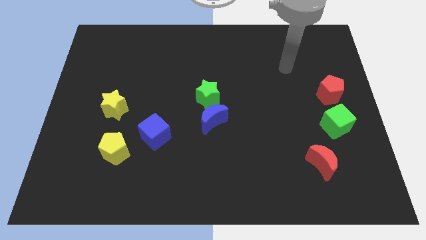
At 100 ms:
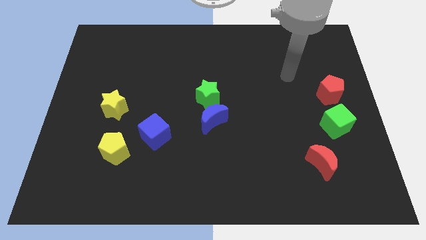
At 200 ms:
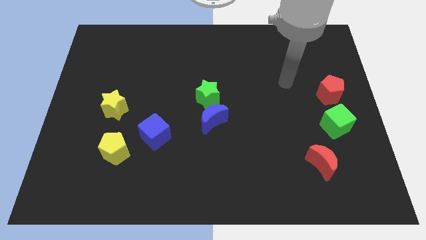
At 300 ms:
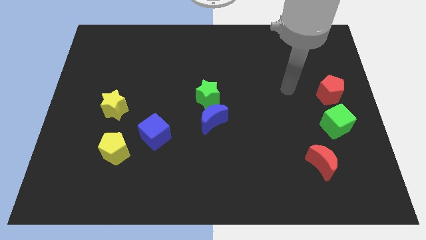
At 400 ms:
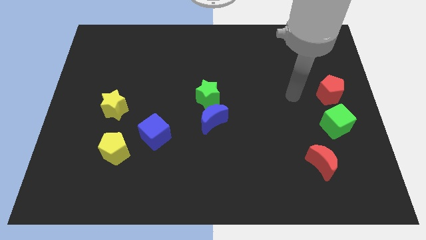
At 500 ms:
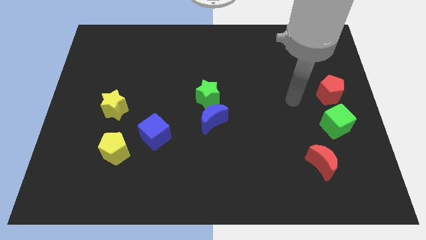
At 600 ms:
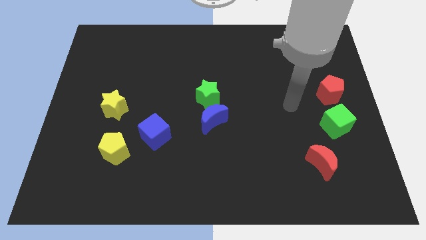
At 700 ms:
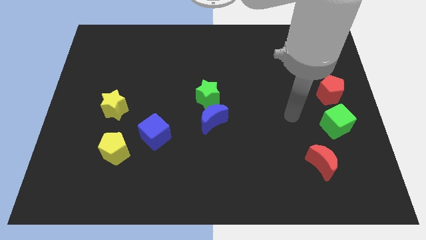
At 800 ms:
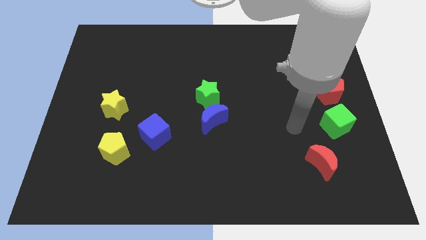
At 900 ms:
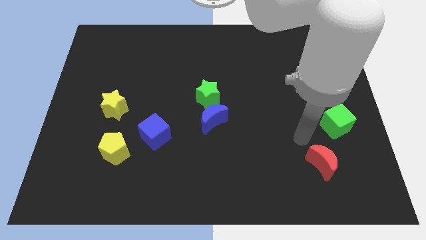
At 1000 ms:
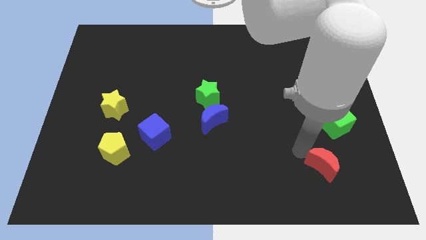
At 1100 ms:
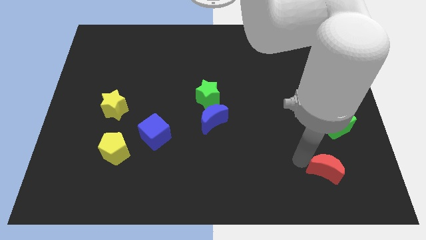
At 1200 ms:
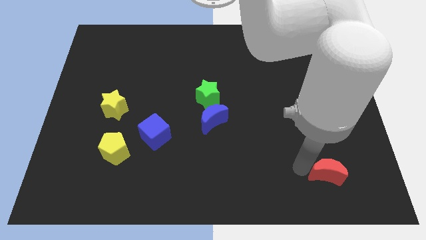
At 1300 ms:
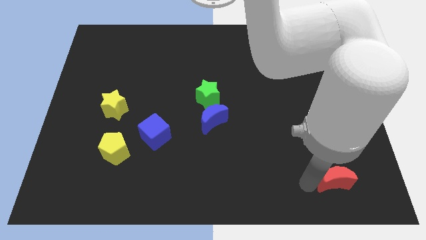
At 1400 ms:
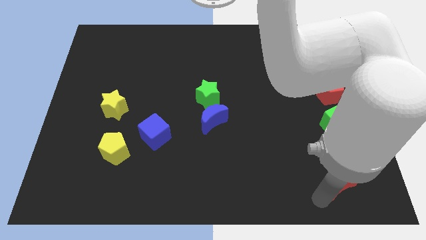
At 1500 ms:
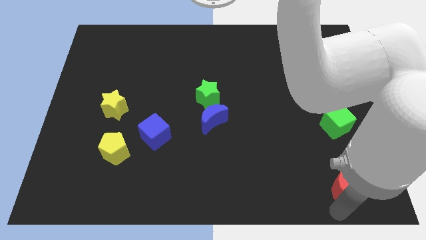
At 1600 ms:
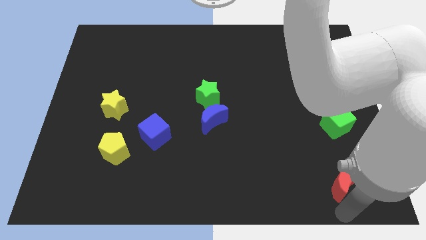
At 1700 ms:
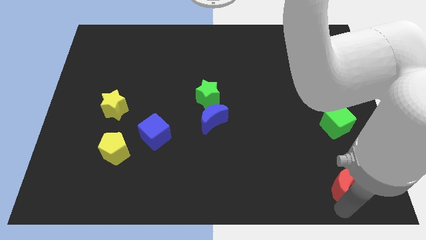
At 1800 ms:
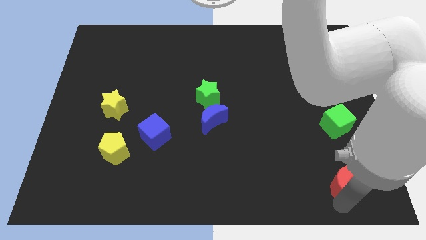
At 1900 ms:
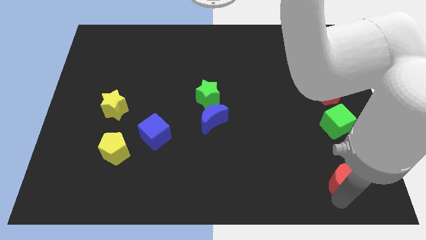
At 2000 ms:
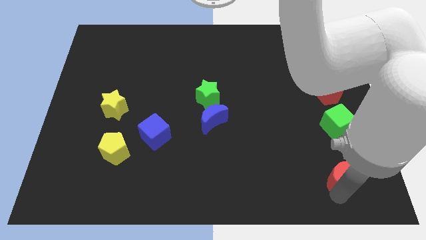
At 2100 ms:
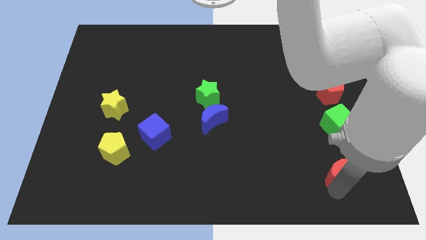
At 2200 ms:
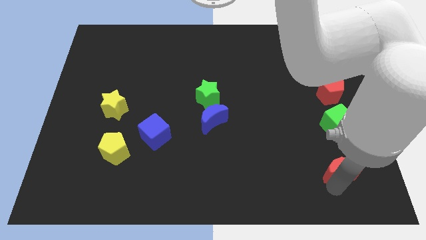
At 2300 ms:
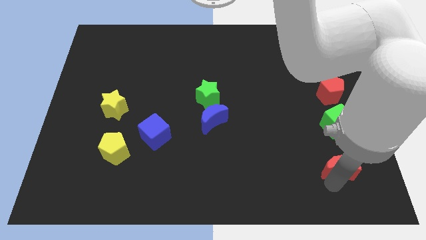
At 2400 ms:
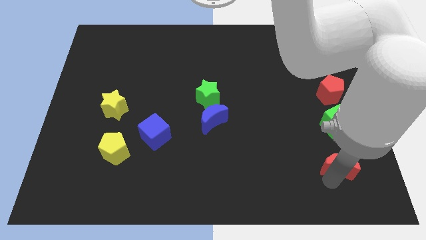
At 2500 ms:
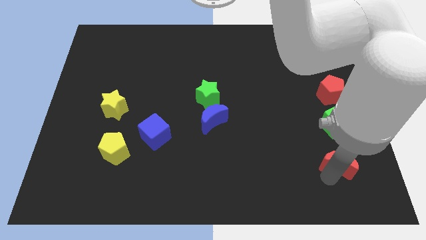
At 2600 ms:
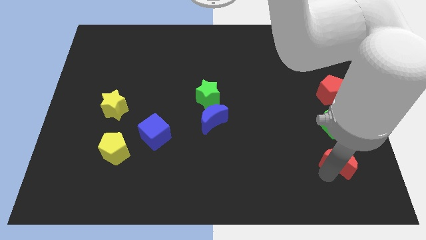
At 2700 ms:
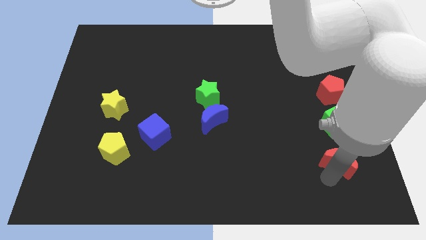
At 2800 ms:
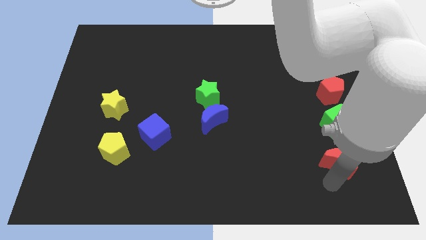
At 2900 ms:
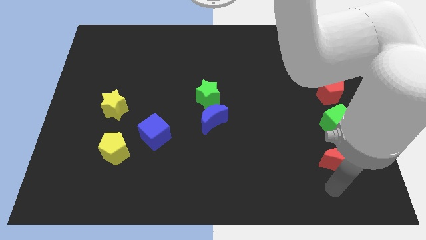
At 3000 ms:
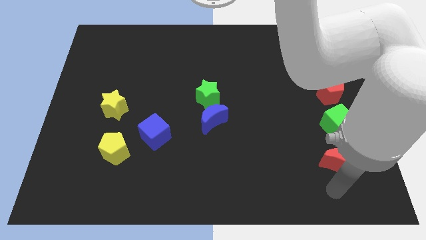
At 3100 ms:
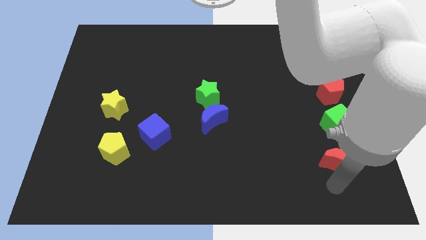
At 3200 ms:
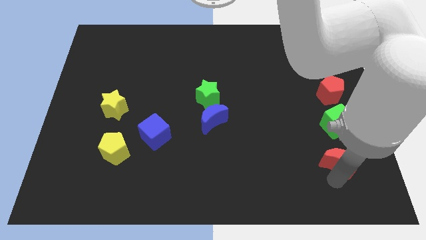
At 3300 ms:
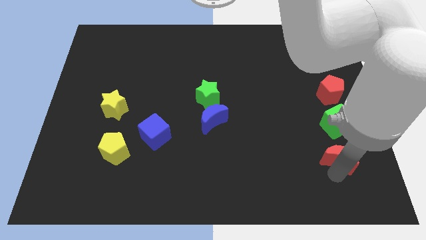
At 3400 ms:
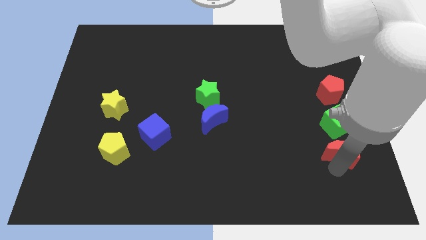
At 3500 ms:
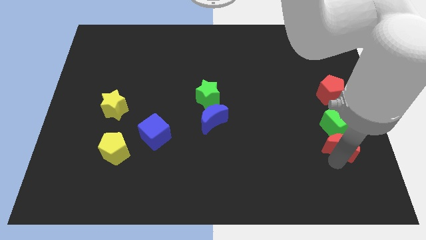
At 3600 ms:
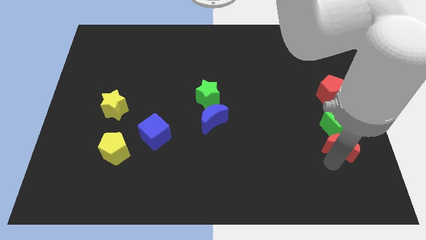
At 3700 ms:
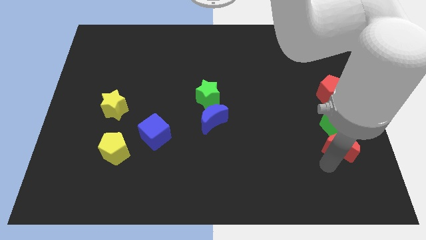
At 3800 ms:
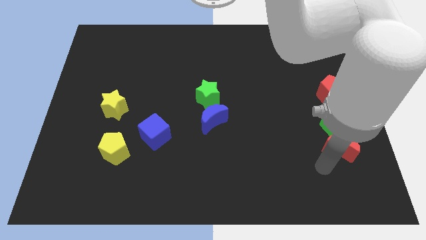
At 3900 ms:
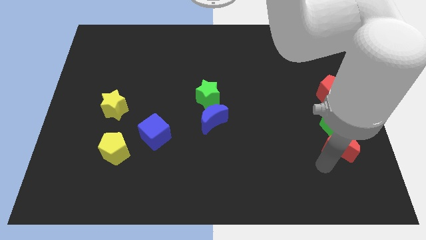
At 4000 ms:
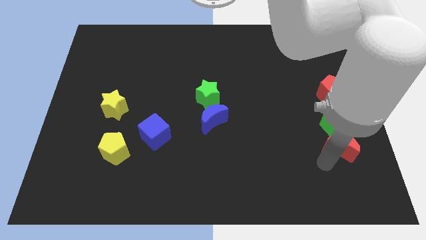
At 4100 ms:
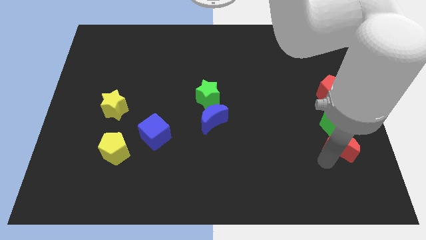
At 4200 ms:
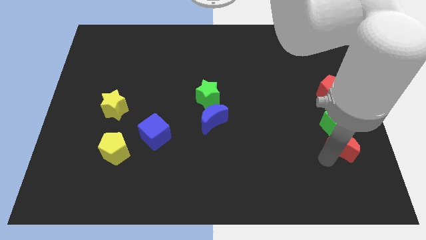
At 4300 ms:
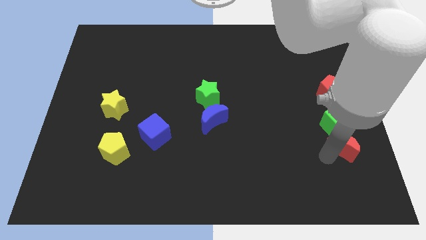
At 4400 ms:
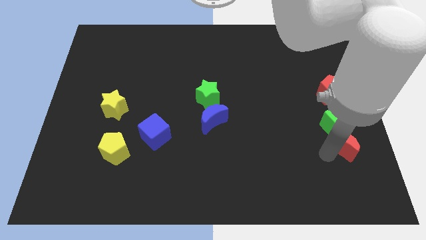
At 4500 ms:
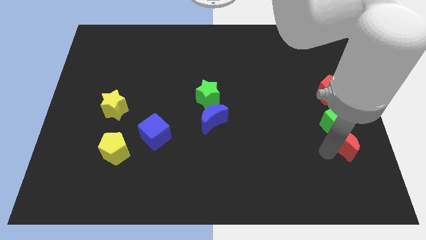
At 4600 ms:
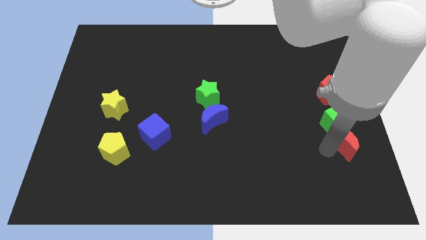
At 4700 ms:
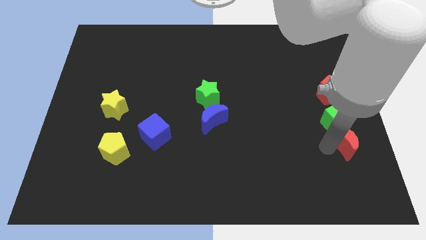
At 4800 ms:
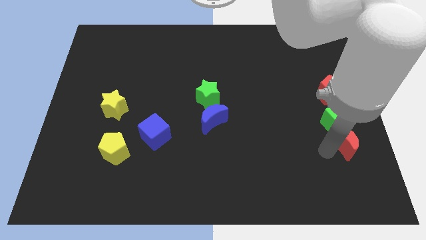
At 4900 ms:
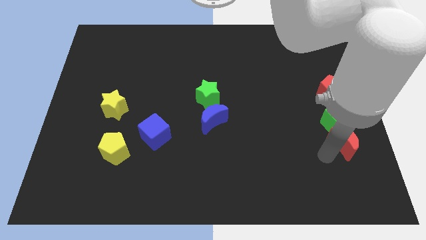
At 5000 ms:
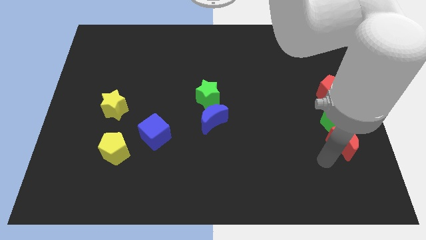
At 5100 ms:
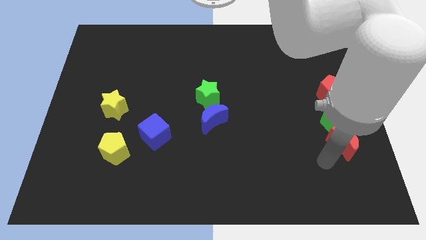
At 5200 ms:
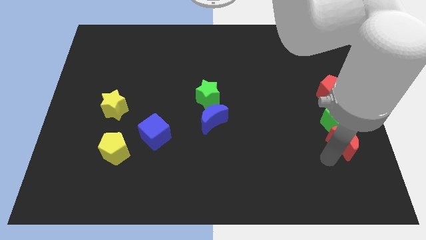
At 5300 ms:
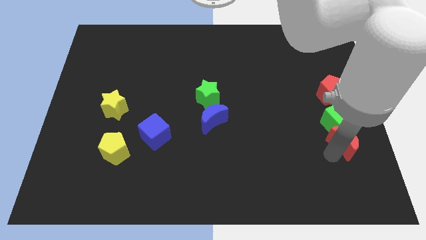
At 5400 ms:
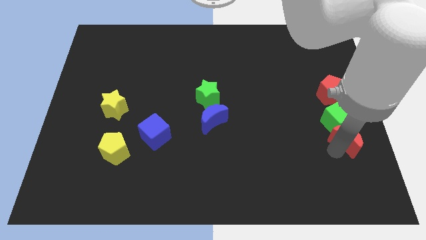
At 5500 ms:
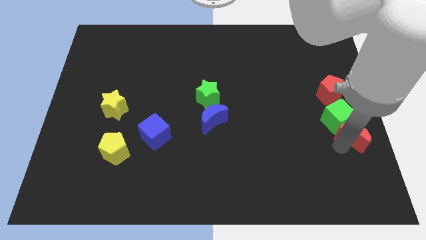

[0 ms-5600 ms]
slide the red moon to the right side

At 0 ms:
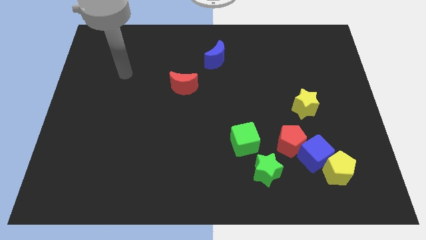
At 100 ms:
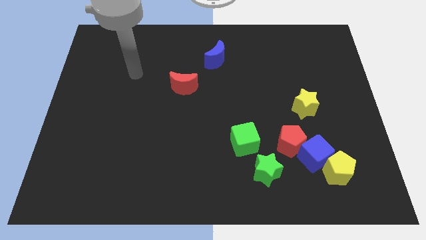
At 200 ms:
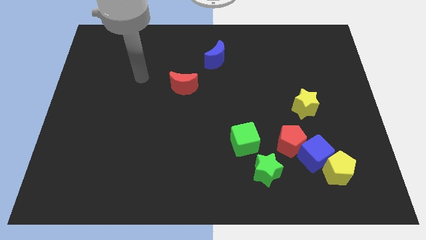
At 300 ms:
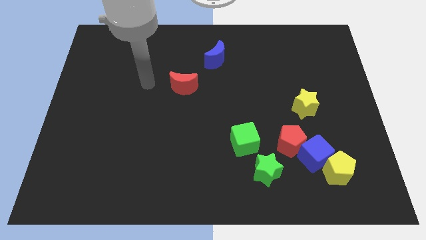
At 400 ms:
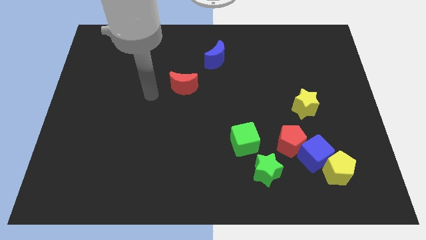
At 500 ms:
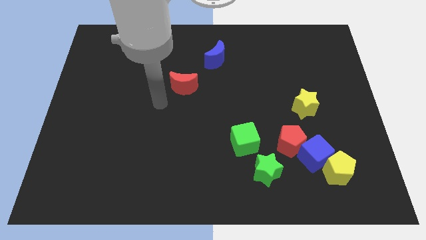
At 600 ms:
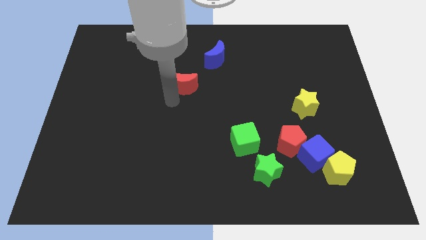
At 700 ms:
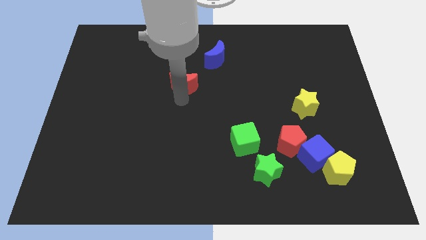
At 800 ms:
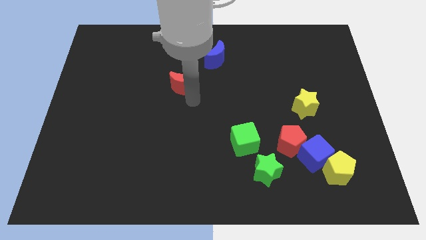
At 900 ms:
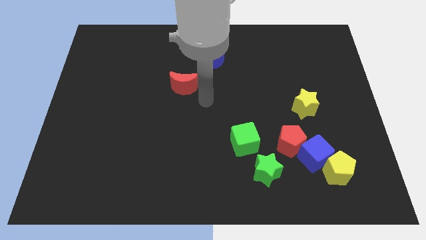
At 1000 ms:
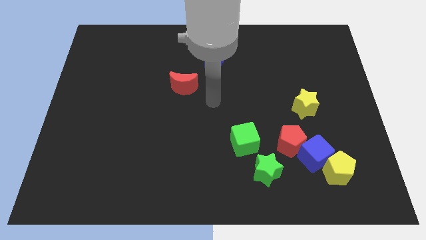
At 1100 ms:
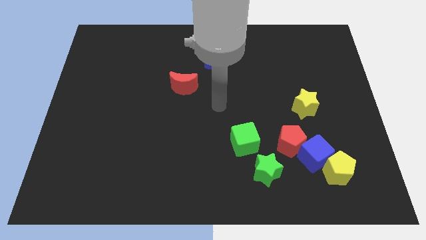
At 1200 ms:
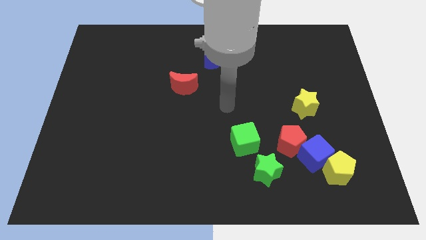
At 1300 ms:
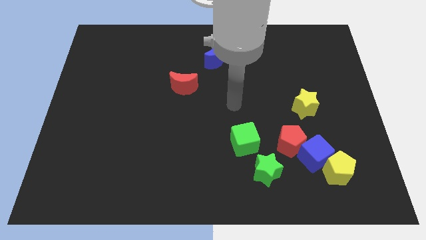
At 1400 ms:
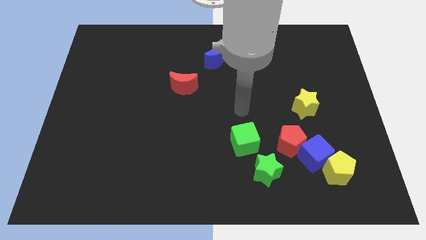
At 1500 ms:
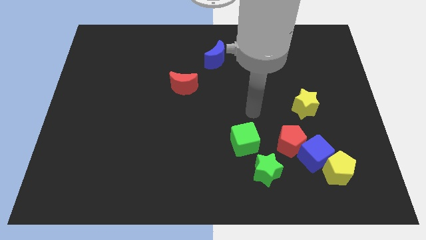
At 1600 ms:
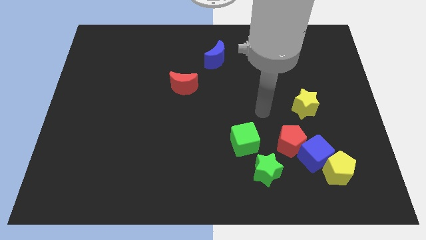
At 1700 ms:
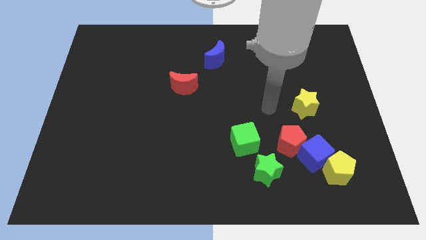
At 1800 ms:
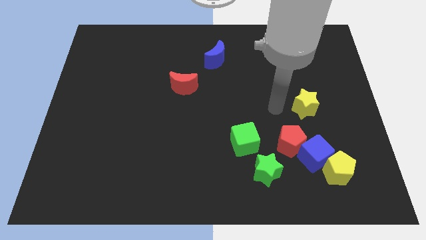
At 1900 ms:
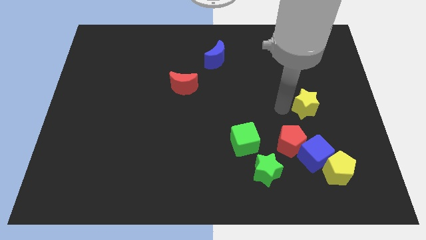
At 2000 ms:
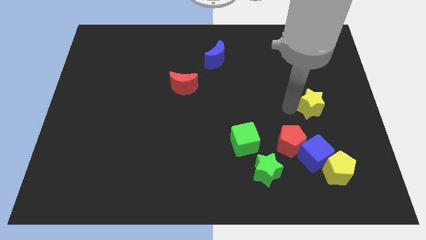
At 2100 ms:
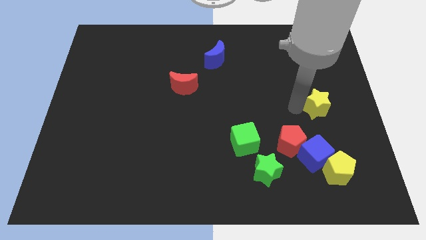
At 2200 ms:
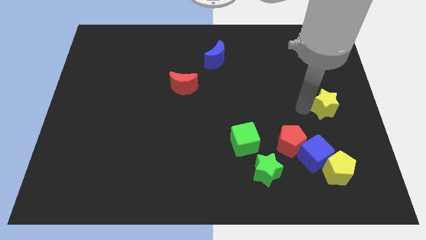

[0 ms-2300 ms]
put the yellow star to the right side
